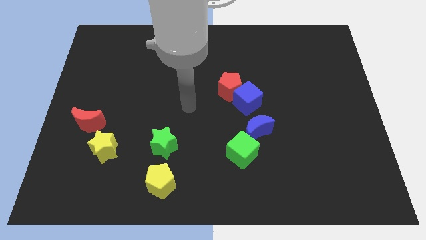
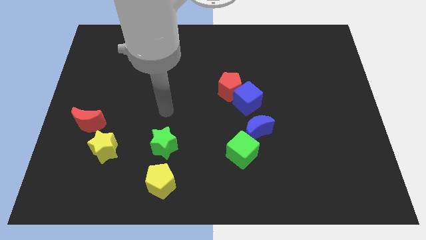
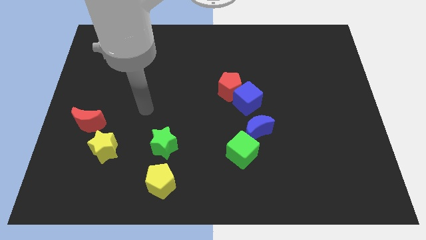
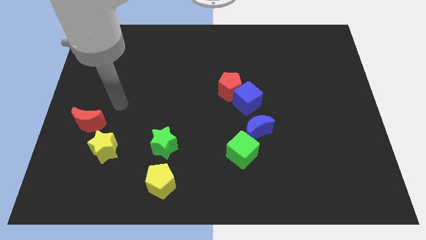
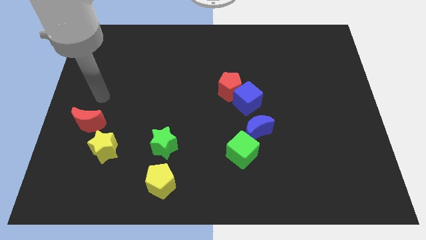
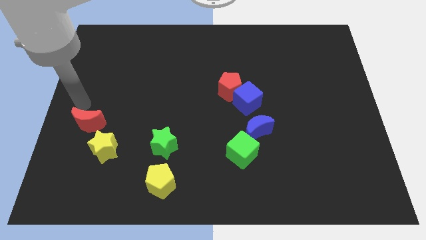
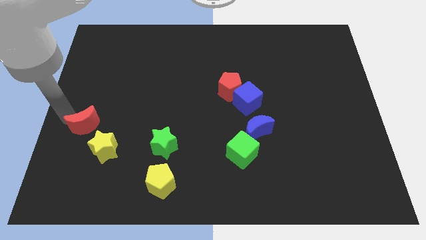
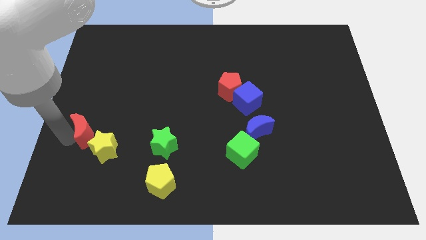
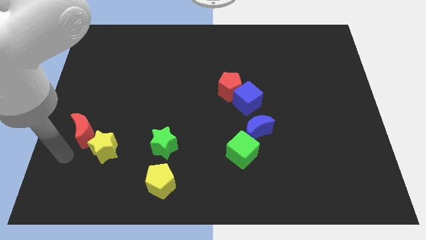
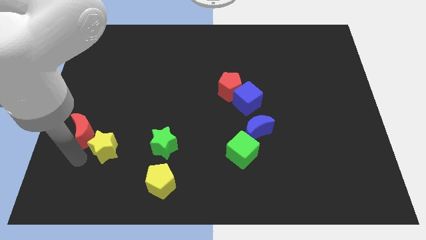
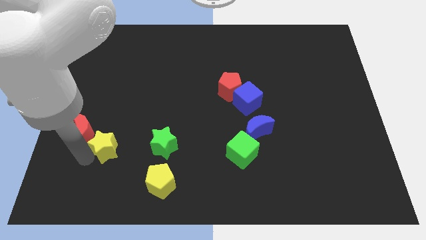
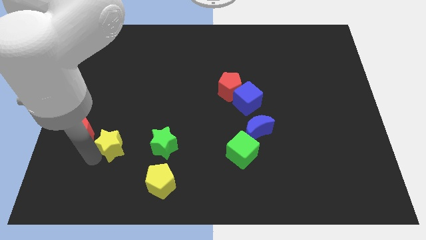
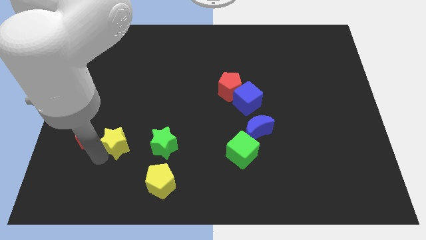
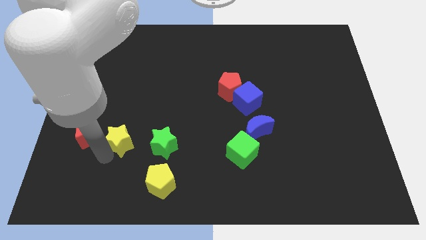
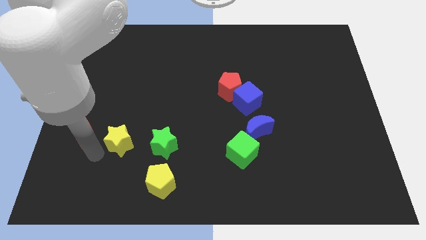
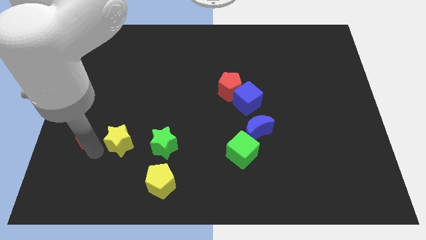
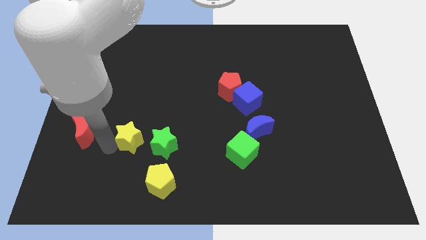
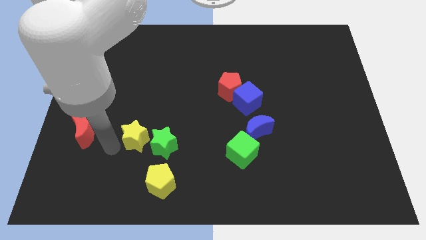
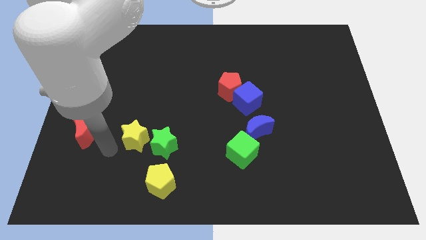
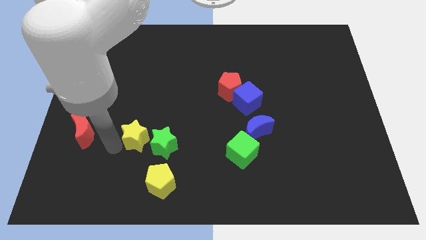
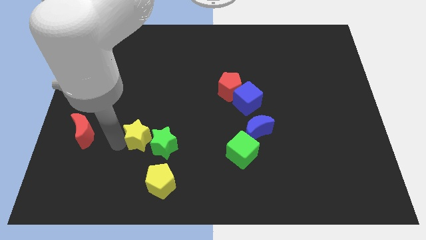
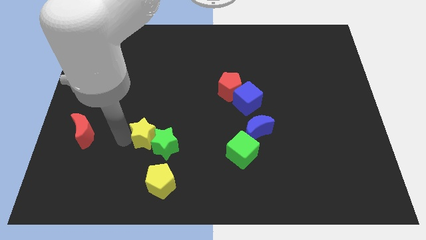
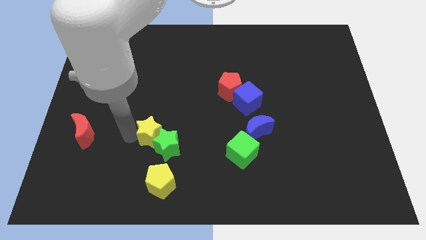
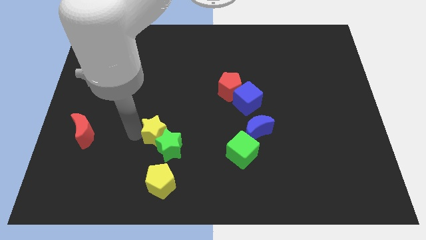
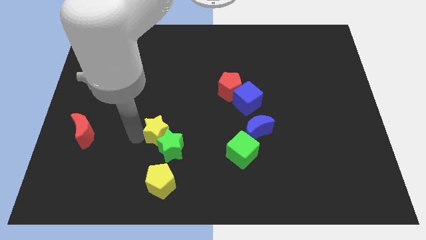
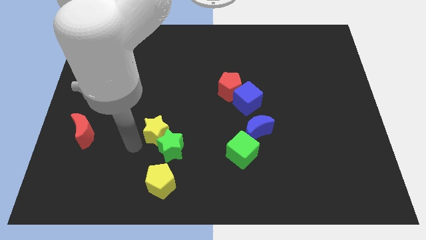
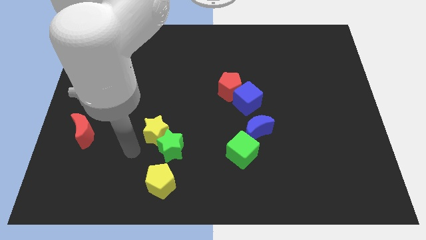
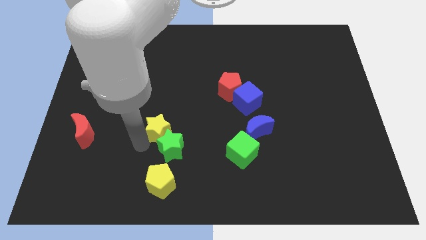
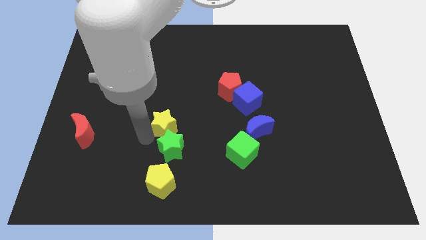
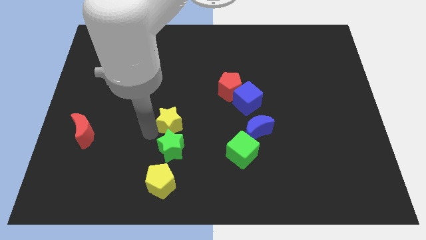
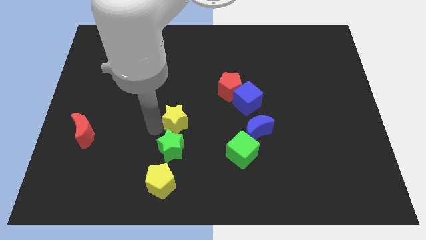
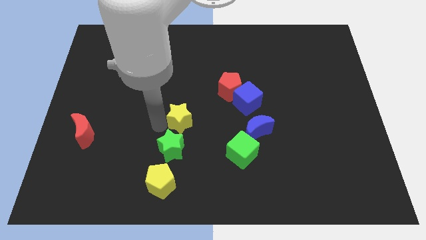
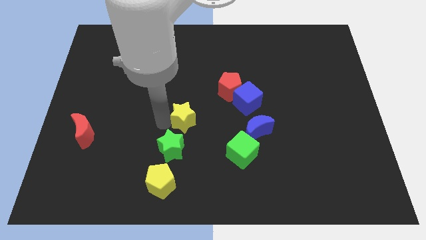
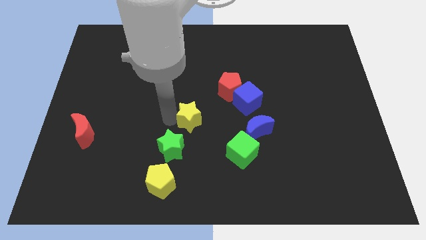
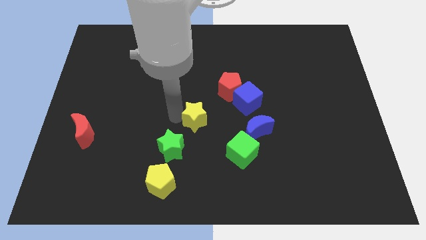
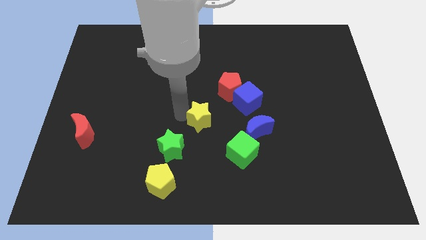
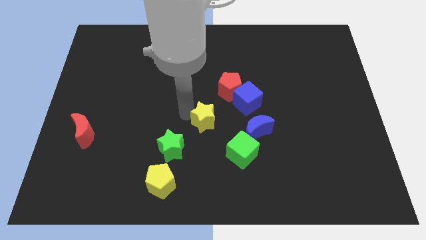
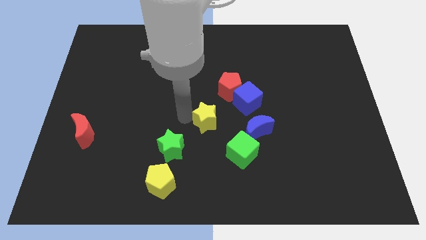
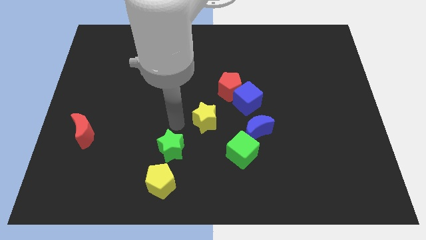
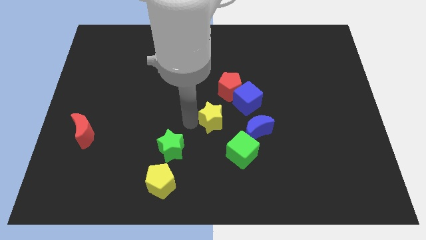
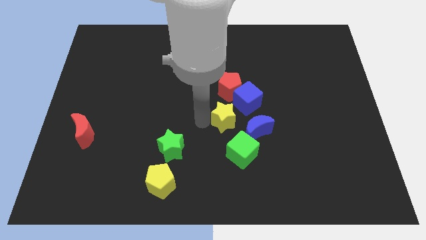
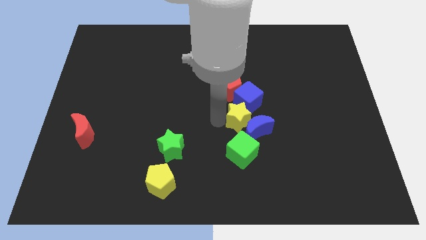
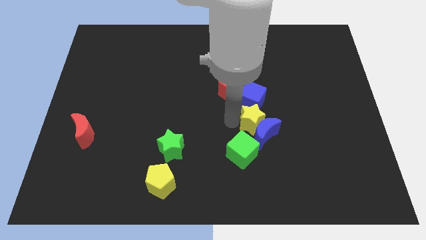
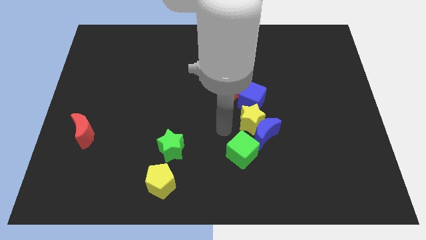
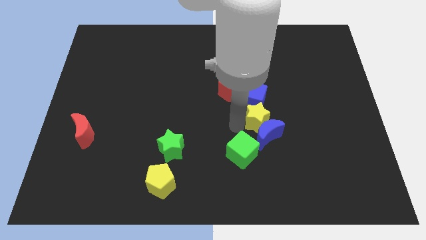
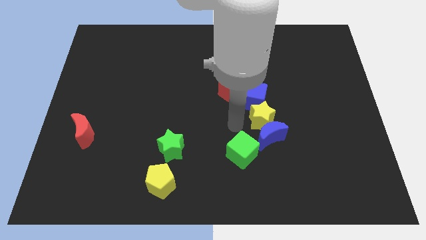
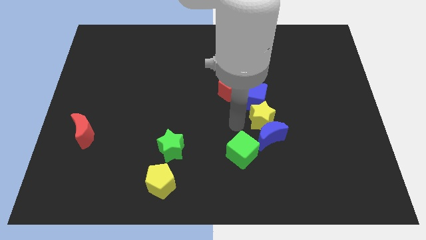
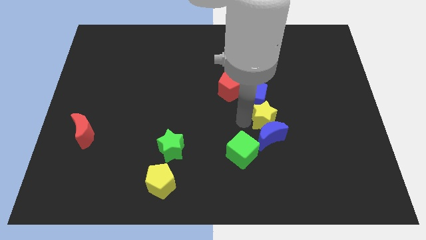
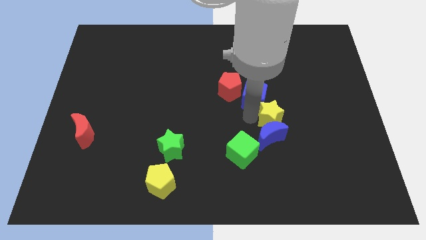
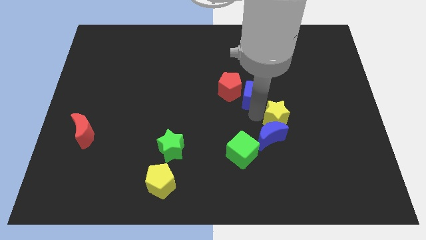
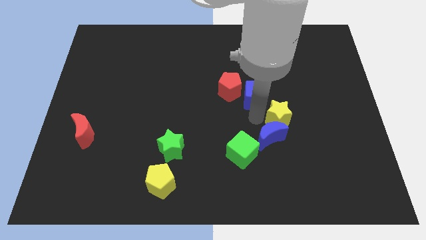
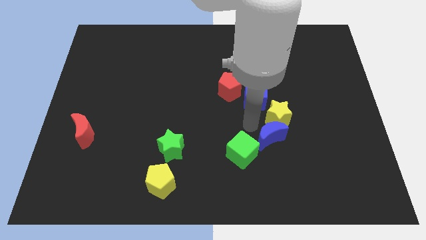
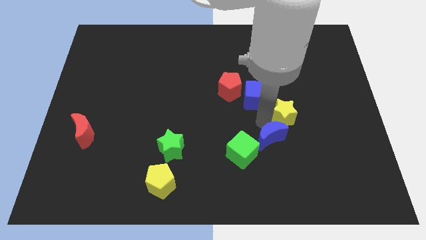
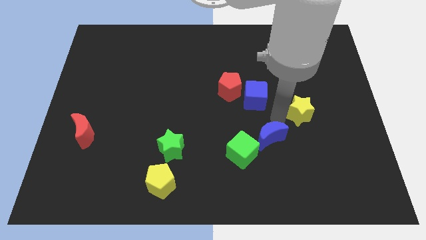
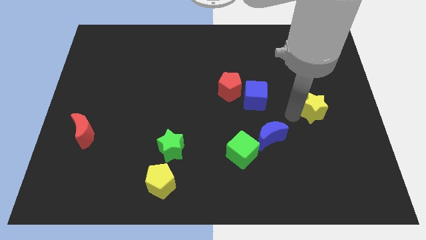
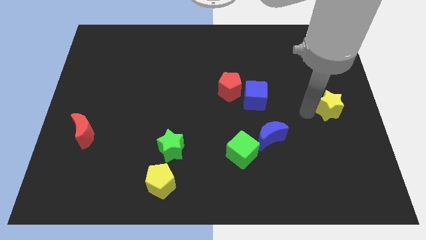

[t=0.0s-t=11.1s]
put the yellow star to the right side
